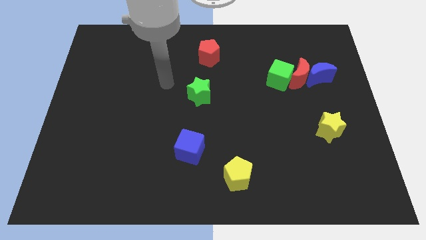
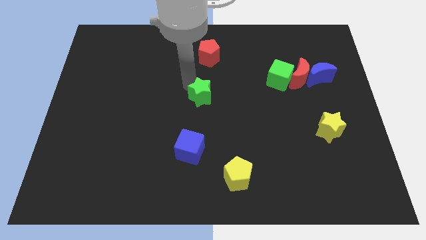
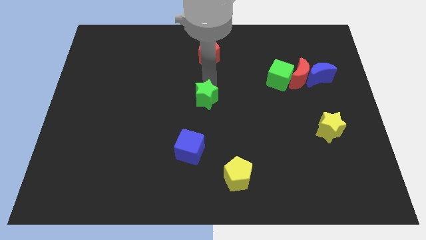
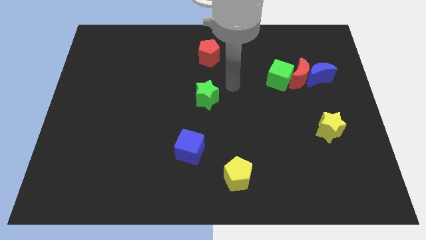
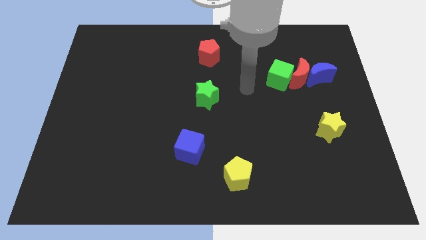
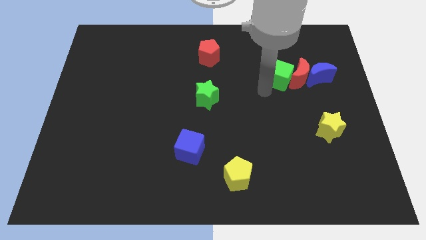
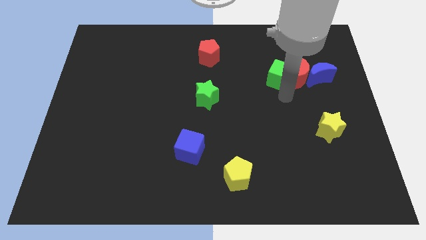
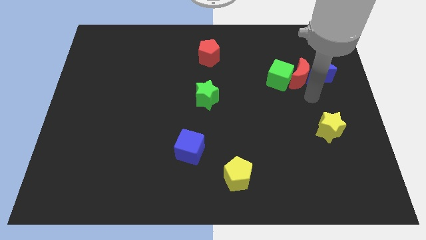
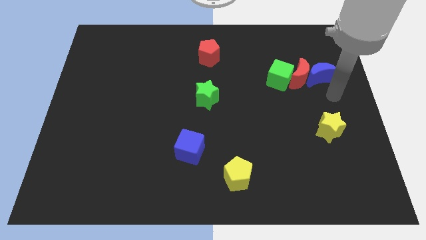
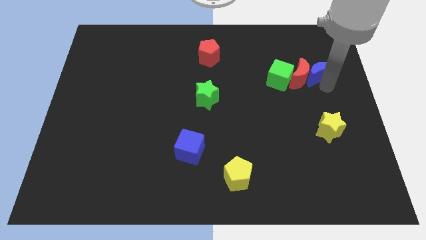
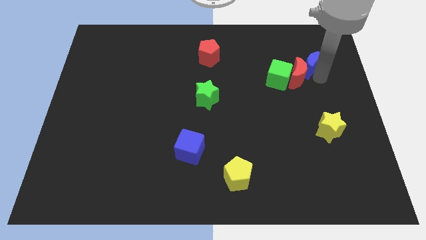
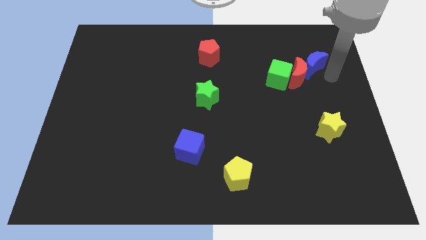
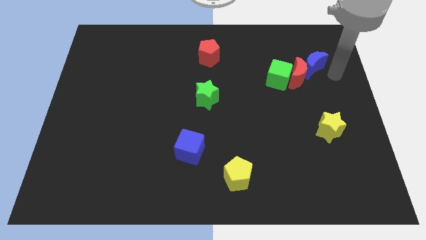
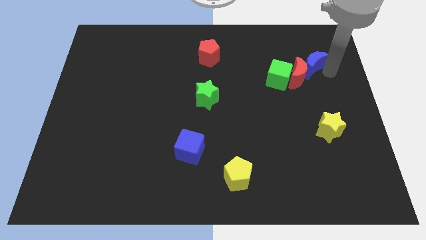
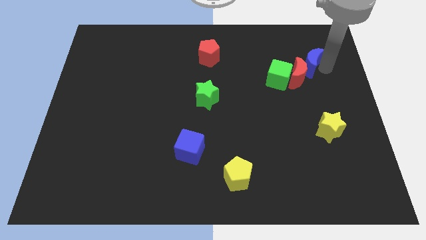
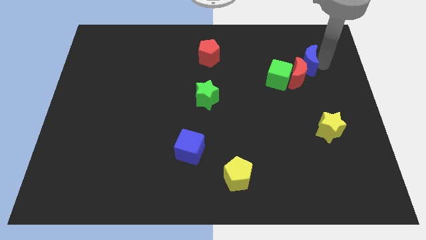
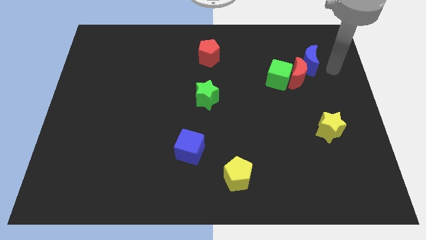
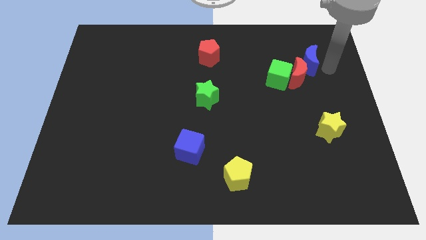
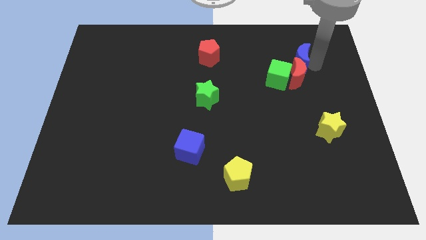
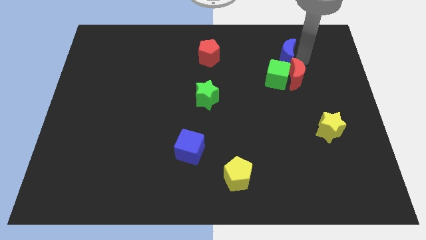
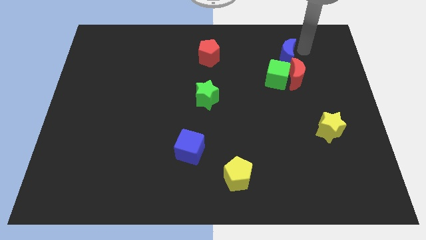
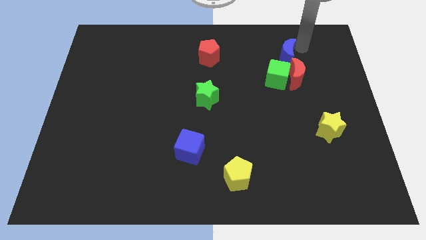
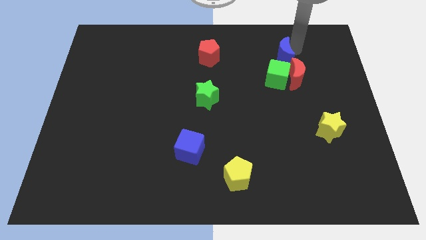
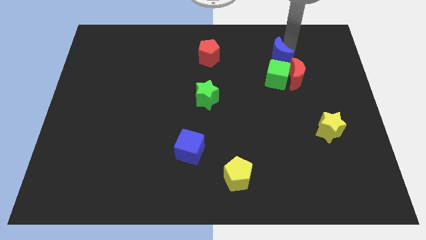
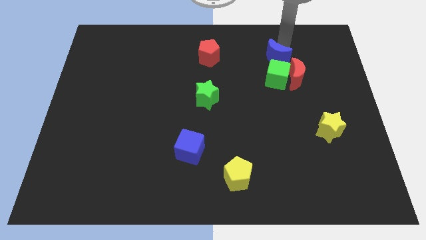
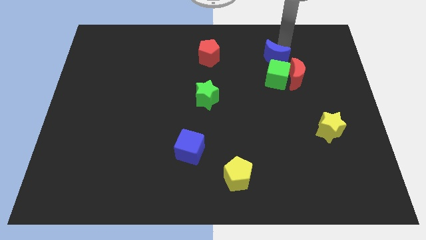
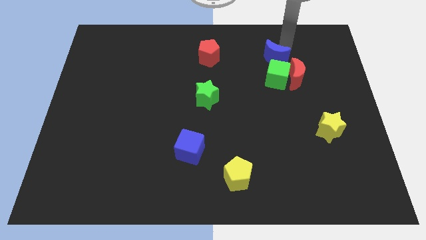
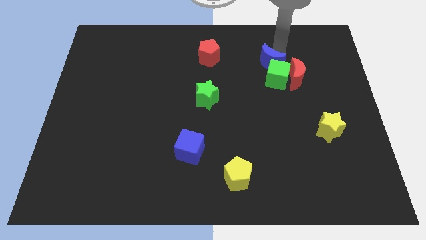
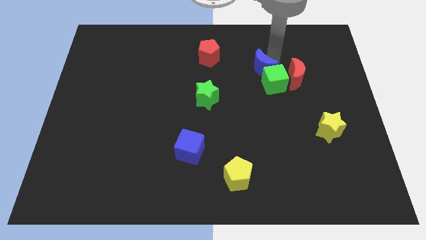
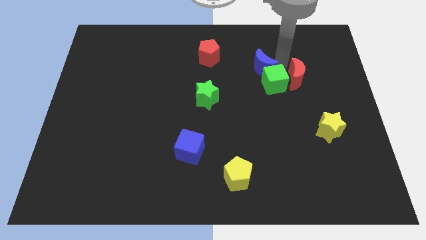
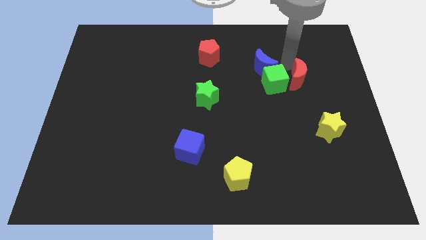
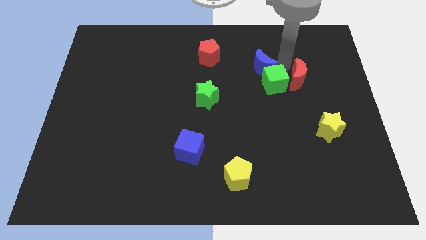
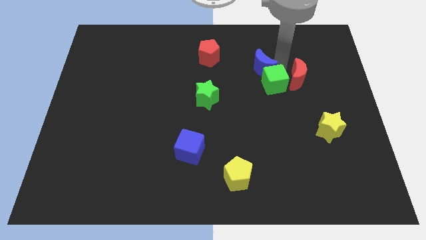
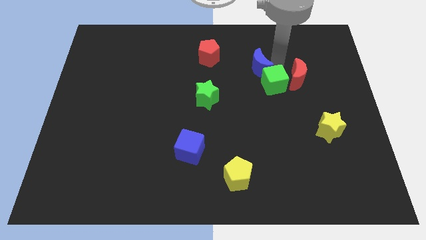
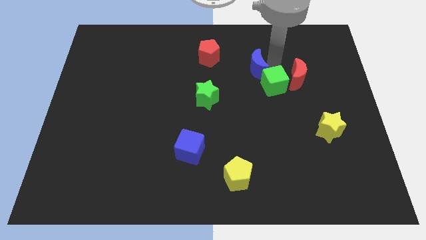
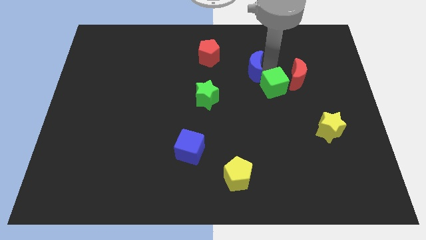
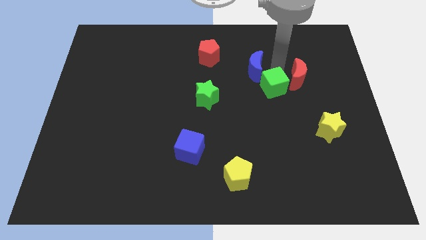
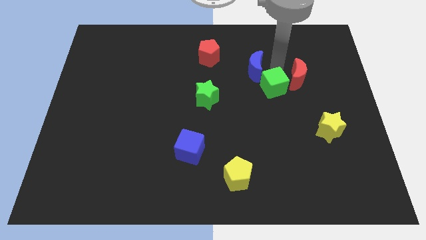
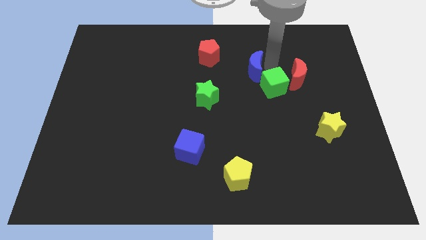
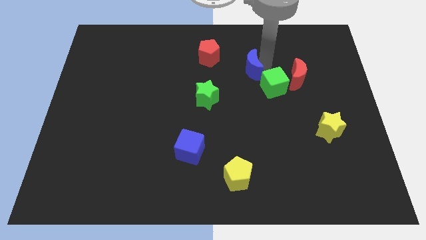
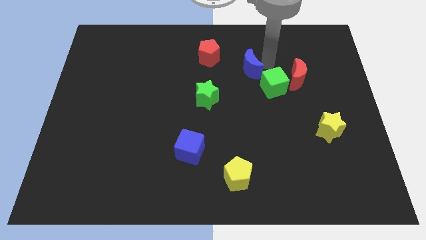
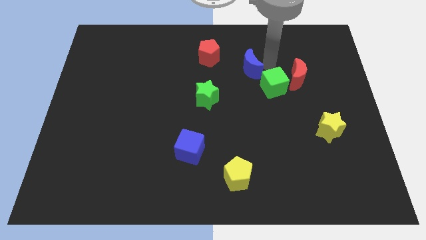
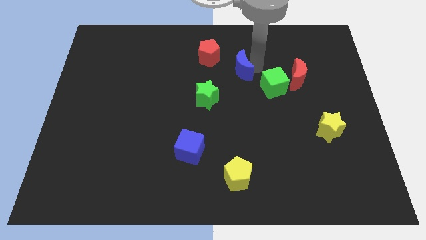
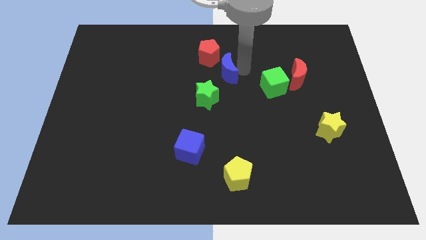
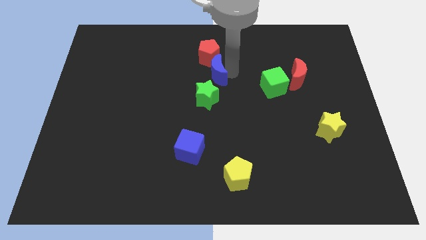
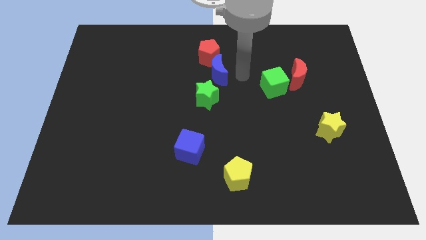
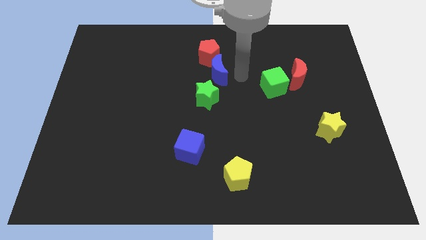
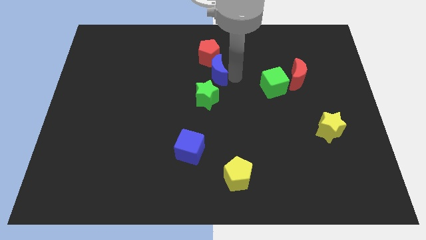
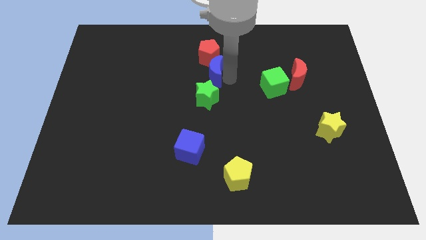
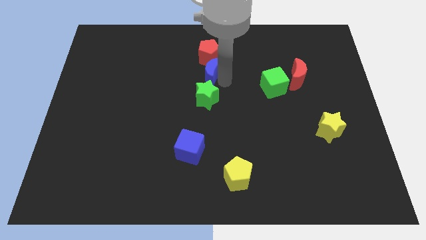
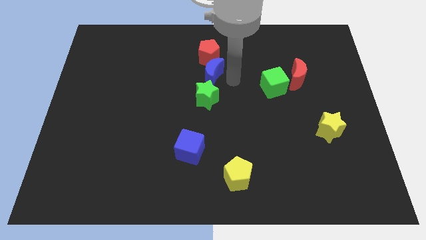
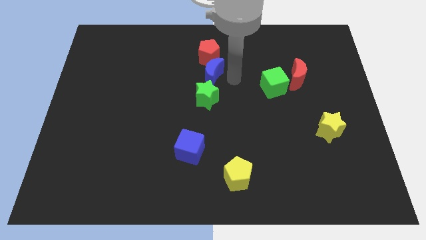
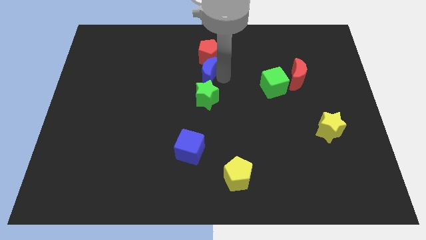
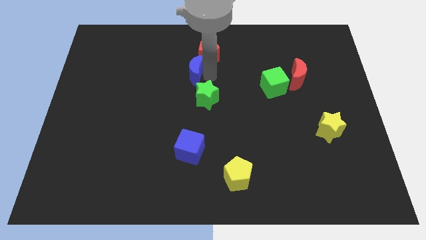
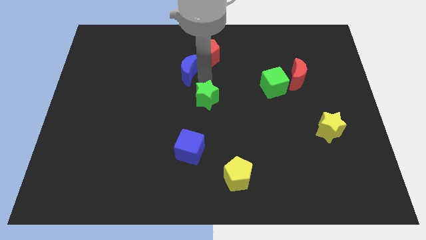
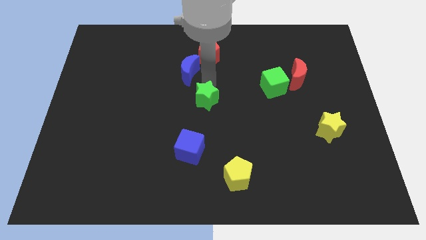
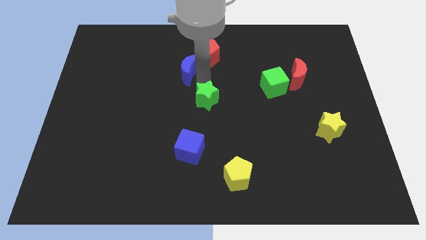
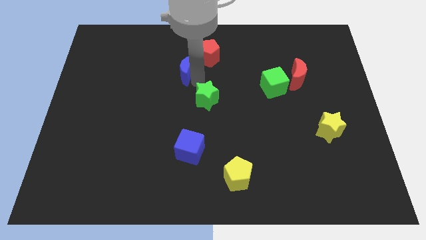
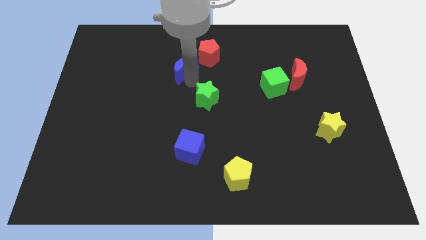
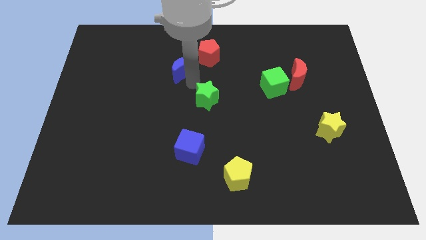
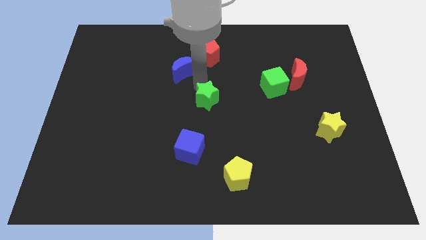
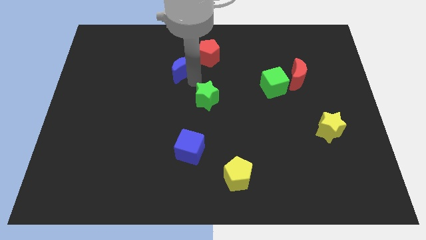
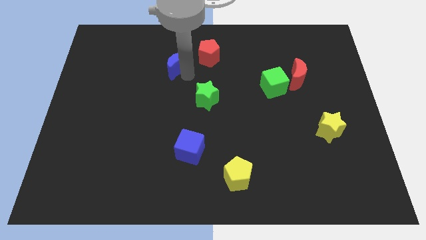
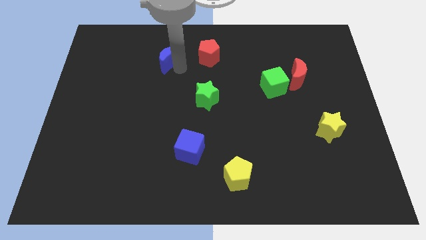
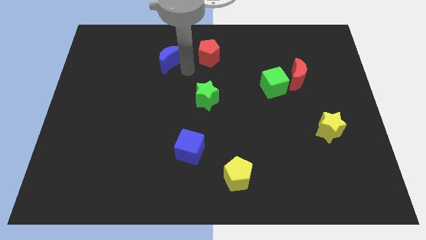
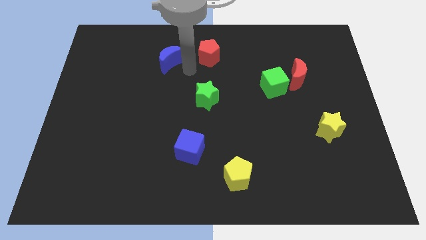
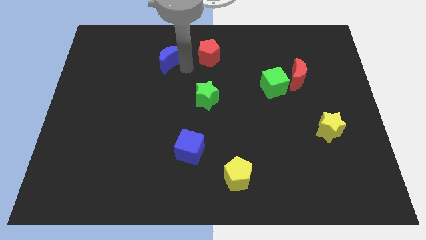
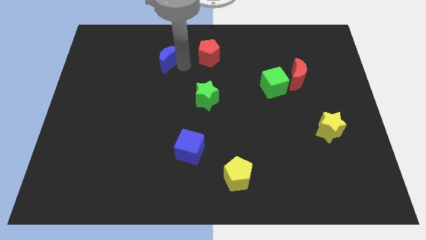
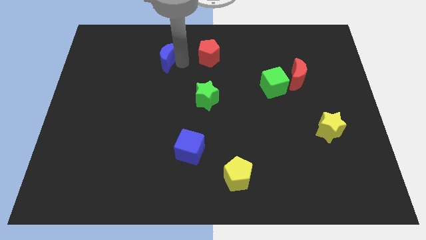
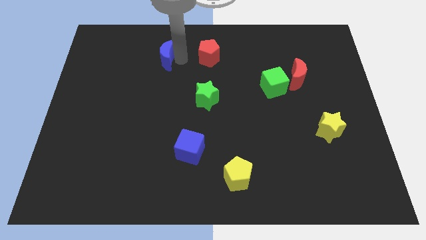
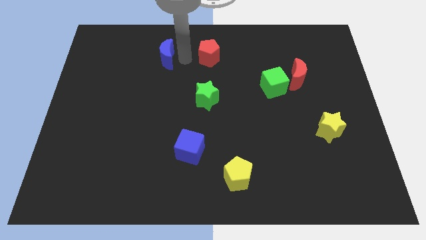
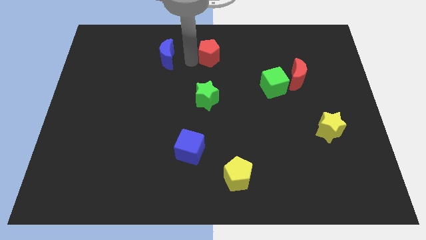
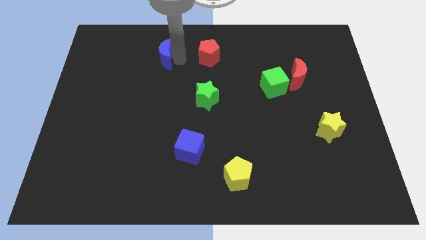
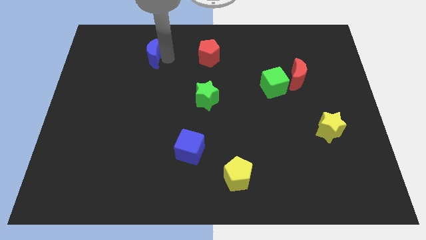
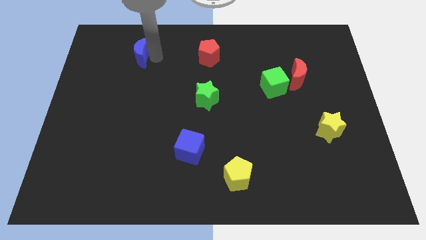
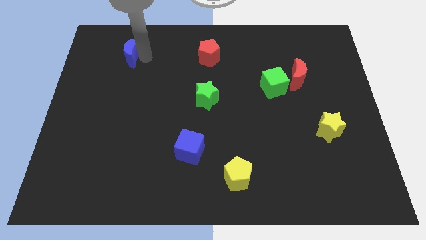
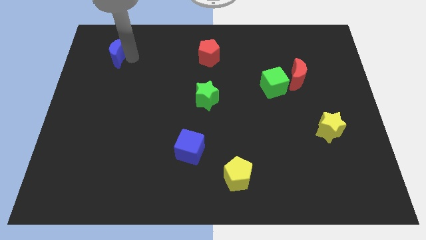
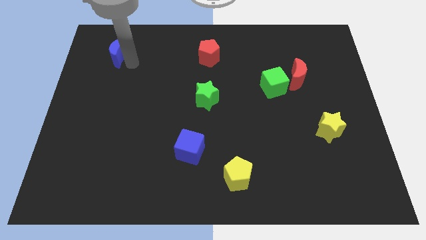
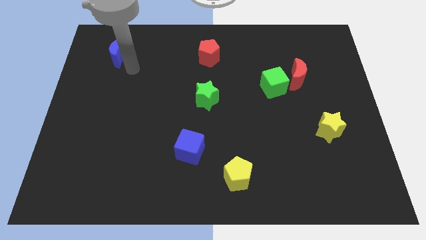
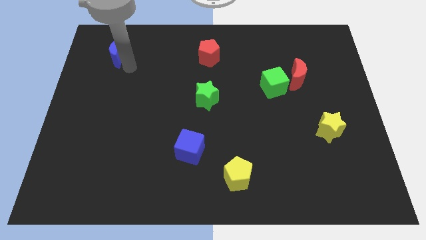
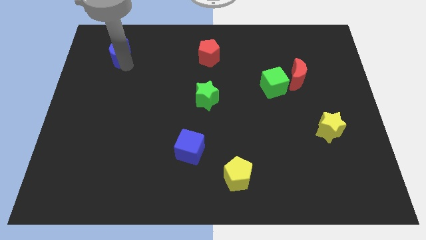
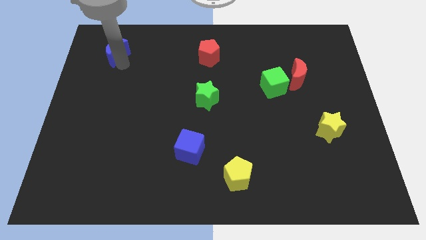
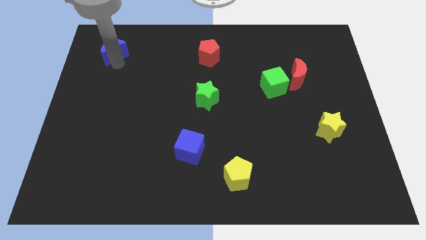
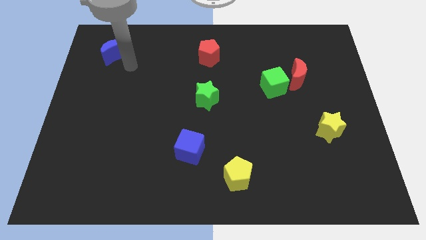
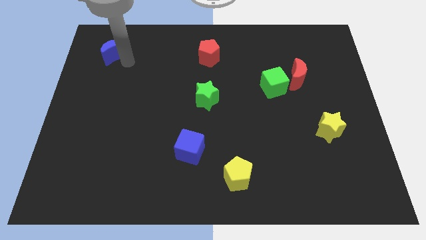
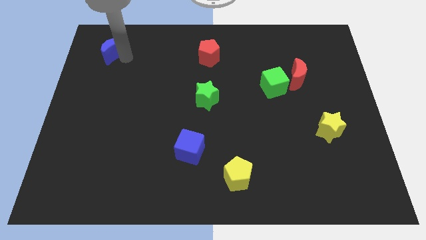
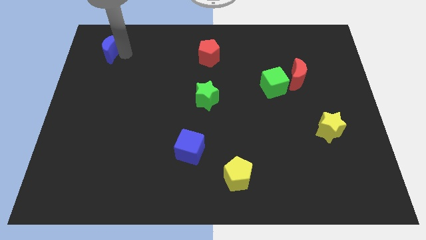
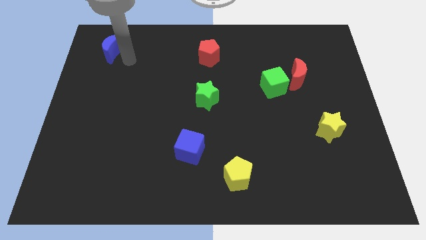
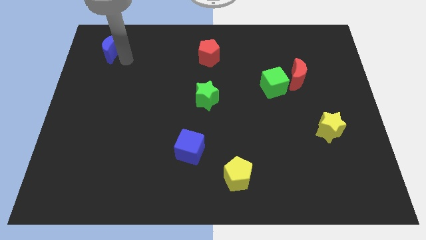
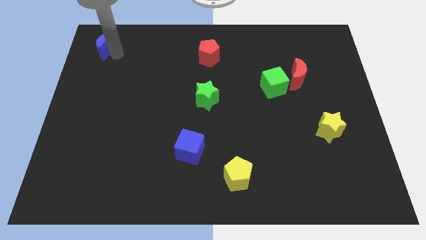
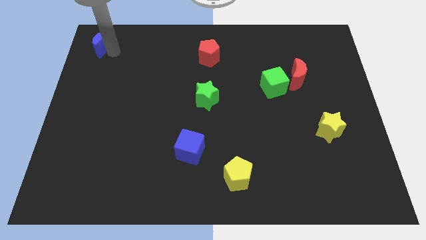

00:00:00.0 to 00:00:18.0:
move the blue moon to the top left corner
